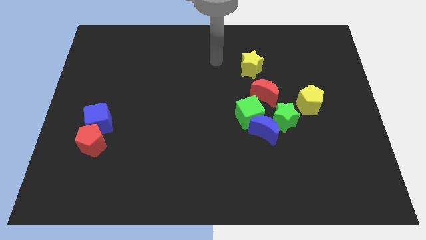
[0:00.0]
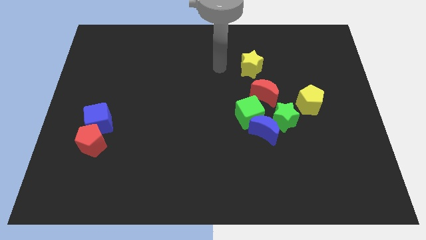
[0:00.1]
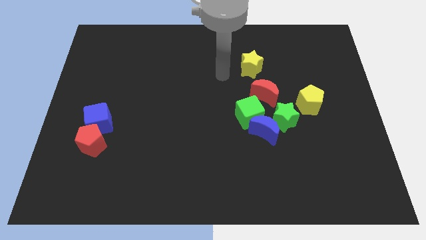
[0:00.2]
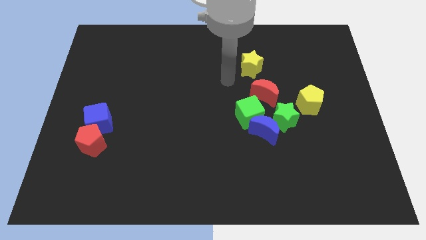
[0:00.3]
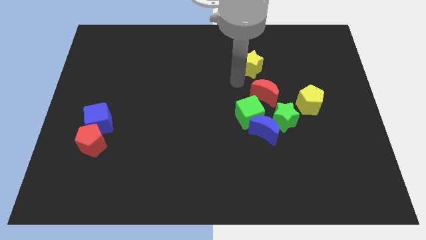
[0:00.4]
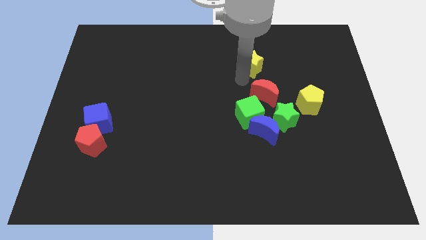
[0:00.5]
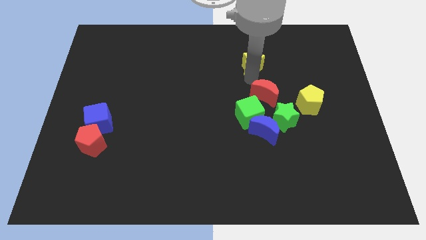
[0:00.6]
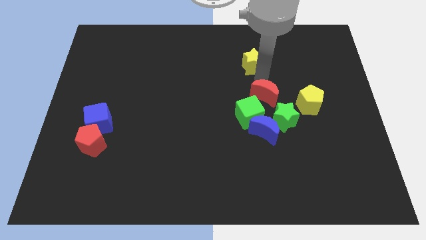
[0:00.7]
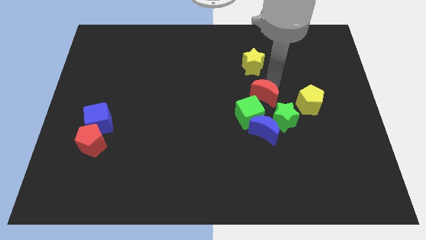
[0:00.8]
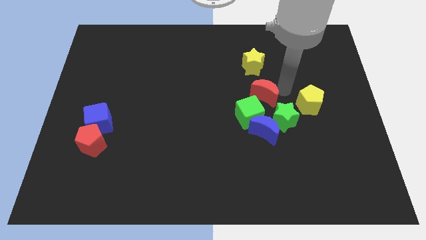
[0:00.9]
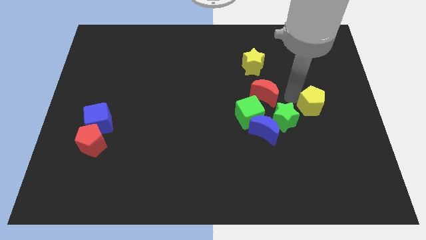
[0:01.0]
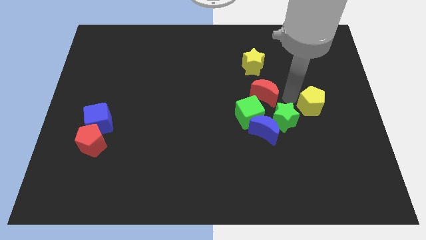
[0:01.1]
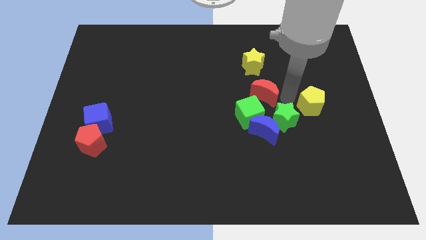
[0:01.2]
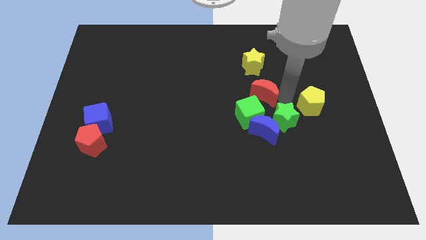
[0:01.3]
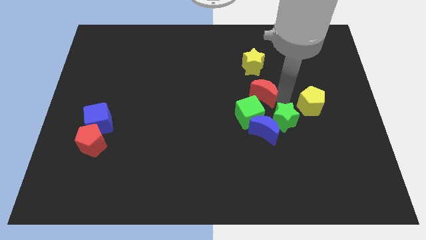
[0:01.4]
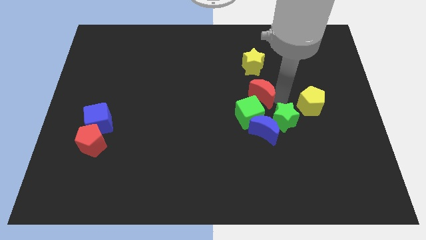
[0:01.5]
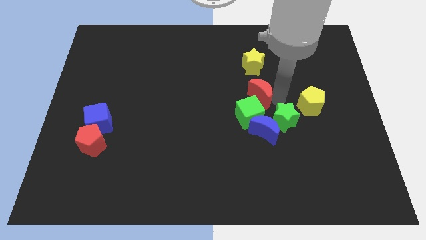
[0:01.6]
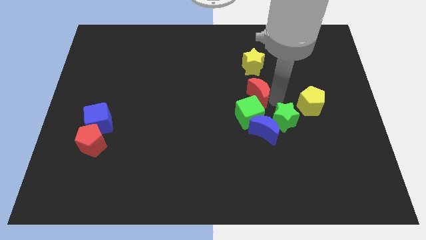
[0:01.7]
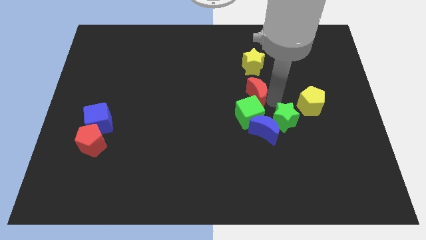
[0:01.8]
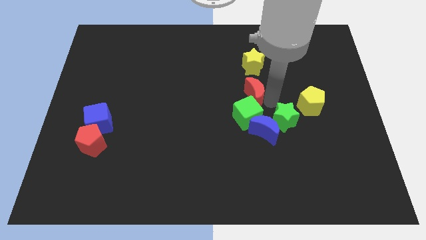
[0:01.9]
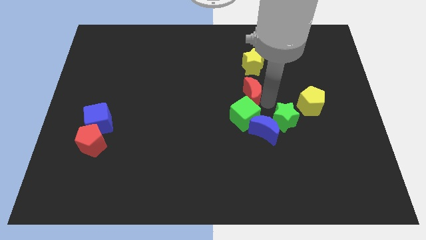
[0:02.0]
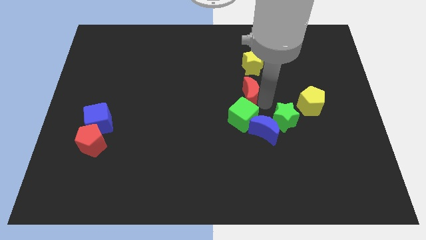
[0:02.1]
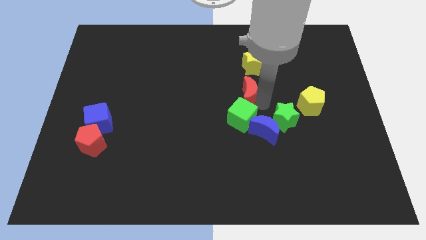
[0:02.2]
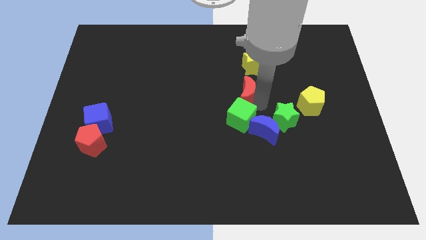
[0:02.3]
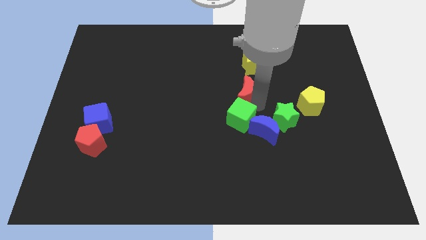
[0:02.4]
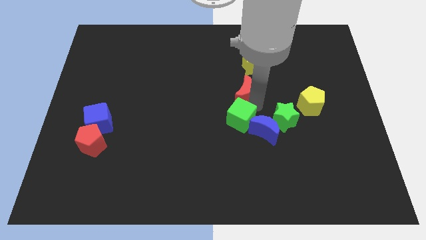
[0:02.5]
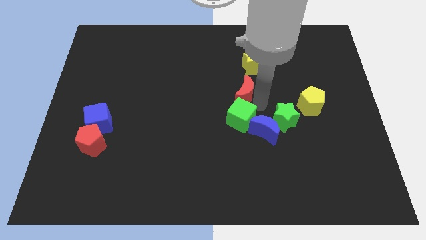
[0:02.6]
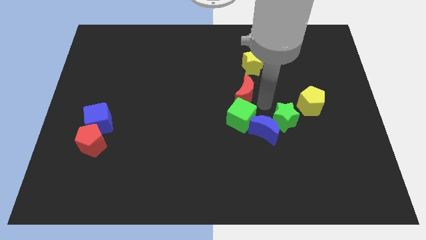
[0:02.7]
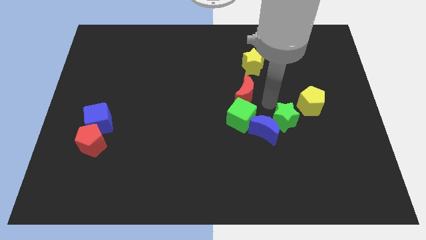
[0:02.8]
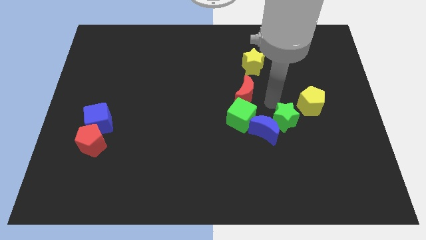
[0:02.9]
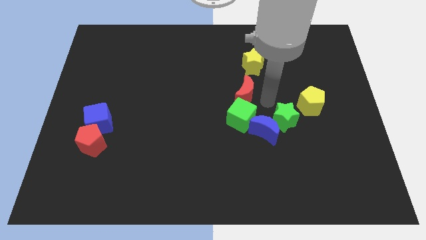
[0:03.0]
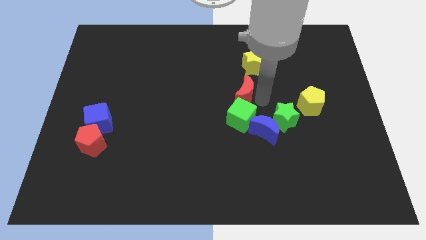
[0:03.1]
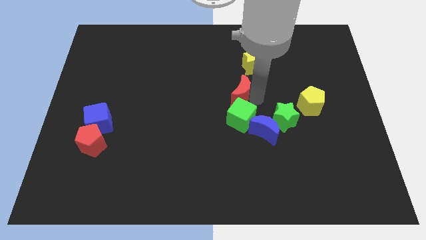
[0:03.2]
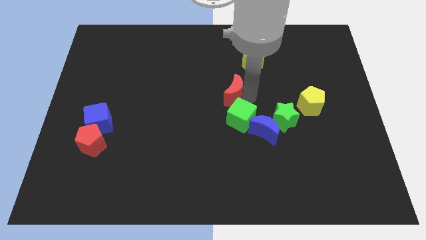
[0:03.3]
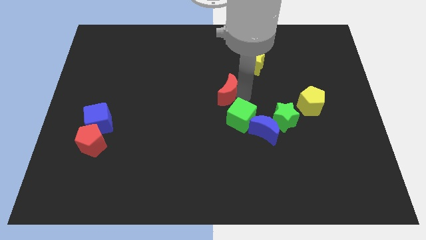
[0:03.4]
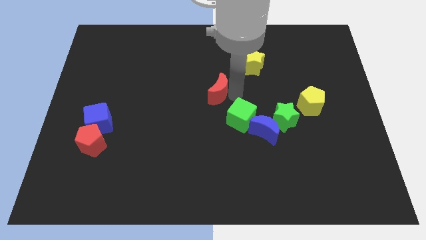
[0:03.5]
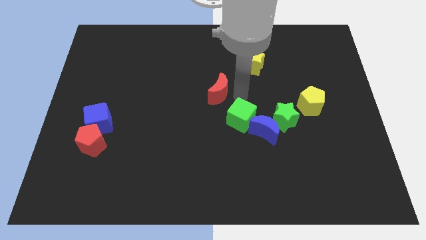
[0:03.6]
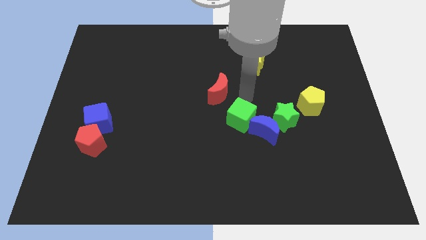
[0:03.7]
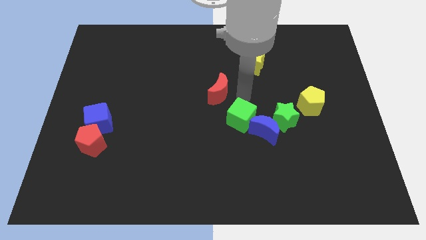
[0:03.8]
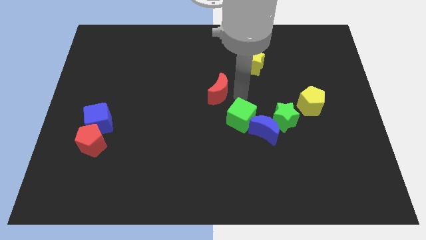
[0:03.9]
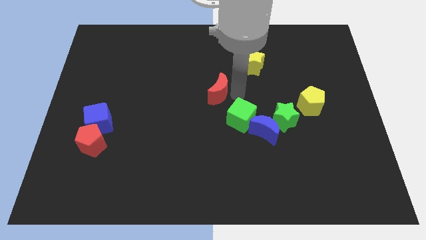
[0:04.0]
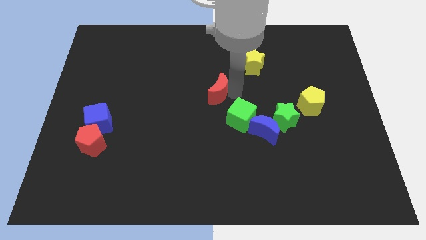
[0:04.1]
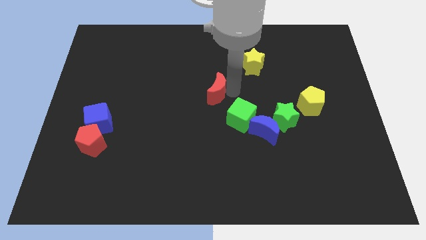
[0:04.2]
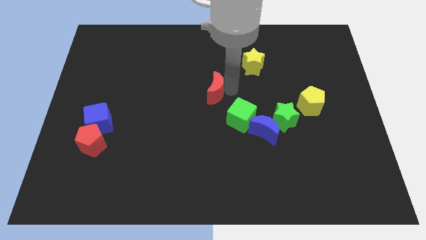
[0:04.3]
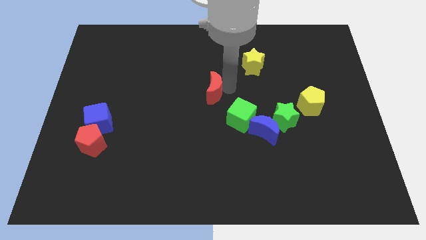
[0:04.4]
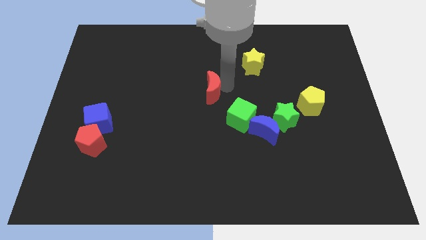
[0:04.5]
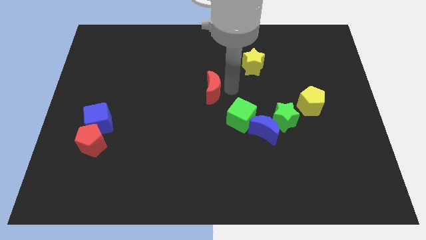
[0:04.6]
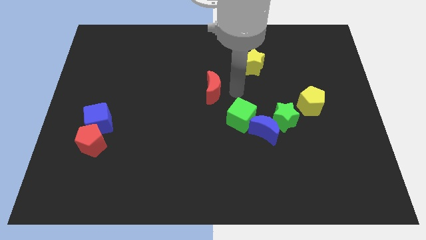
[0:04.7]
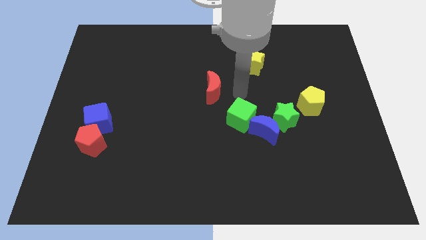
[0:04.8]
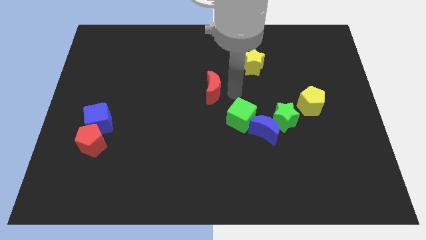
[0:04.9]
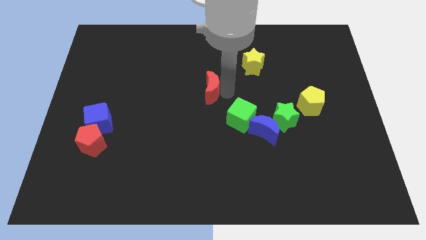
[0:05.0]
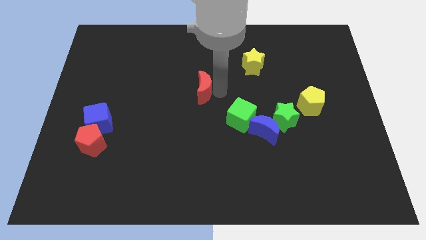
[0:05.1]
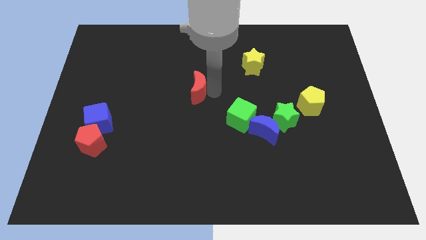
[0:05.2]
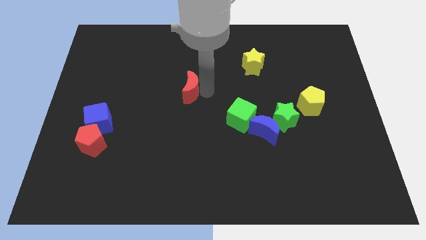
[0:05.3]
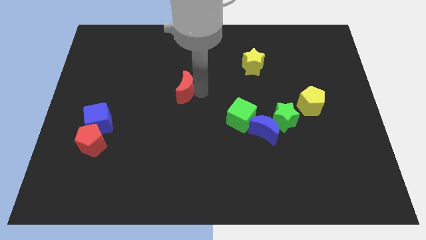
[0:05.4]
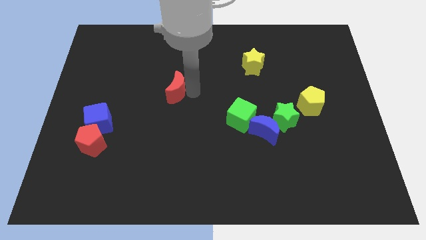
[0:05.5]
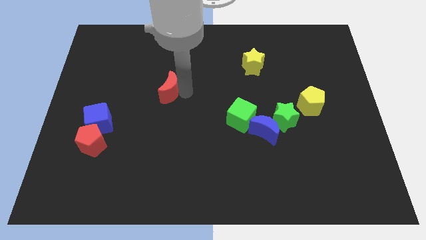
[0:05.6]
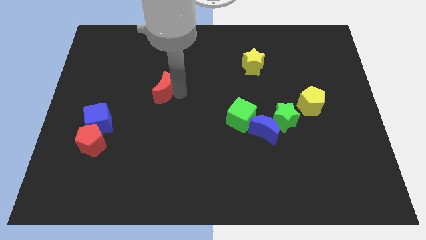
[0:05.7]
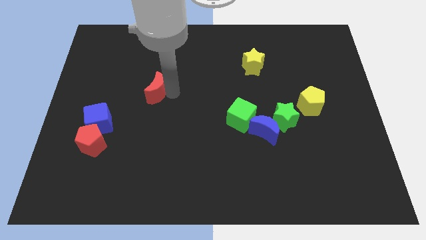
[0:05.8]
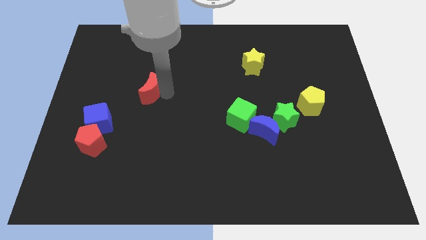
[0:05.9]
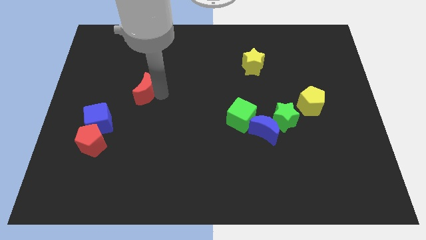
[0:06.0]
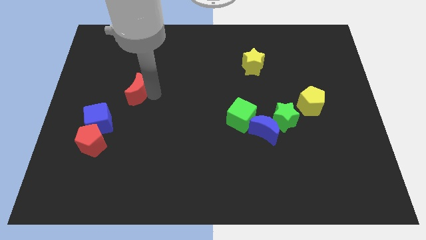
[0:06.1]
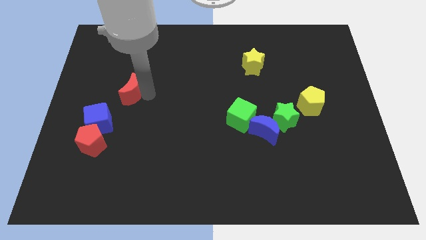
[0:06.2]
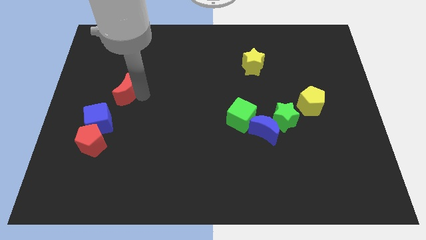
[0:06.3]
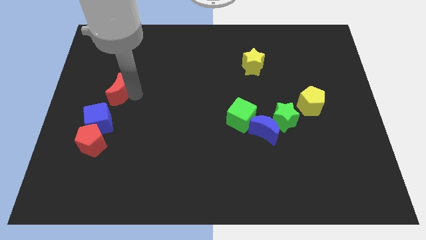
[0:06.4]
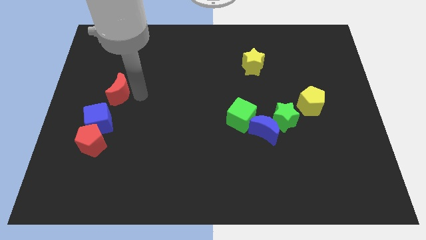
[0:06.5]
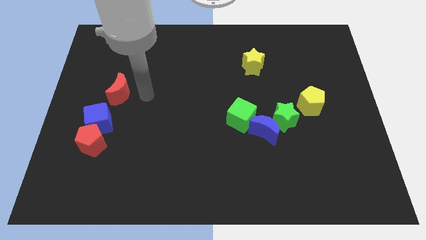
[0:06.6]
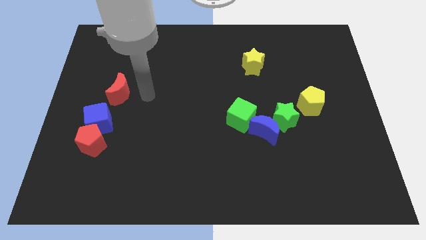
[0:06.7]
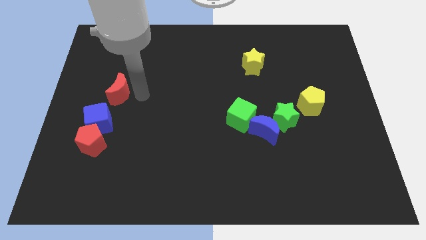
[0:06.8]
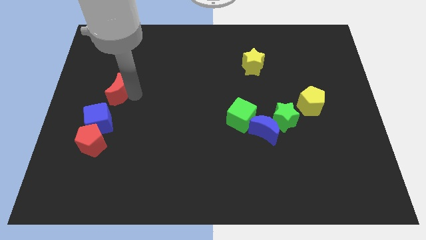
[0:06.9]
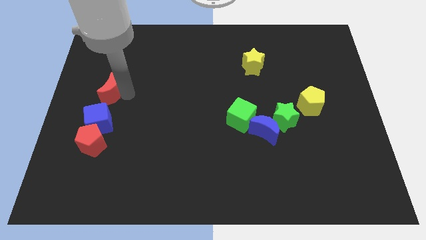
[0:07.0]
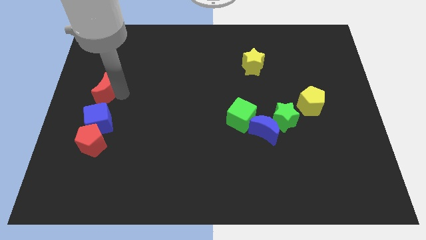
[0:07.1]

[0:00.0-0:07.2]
slide the red moon to the left side of the board
